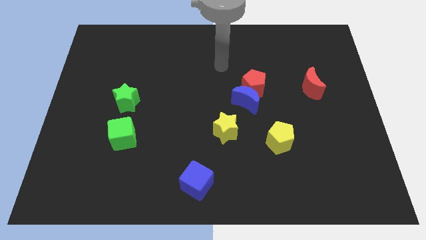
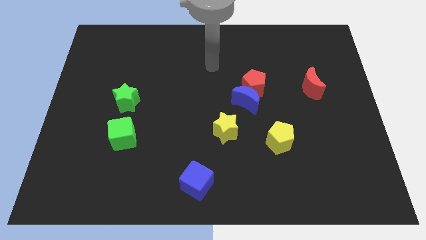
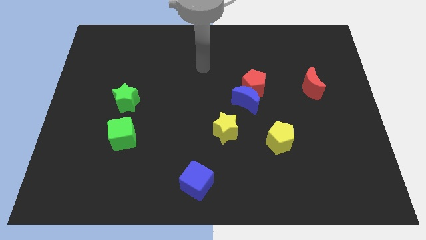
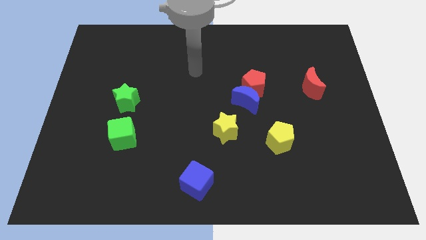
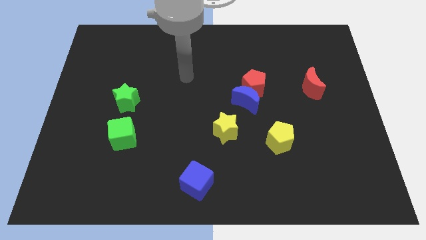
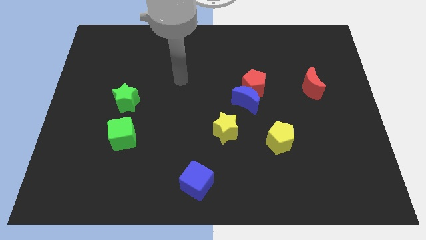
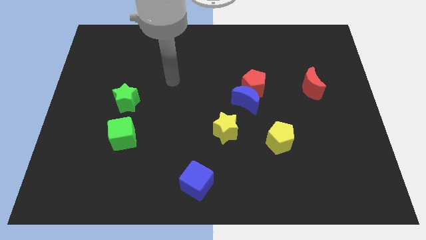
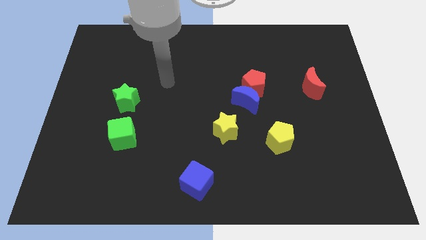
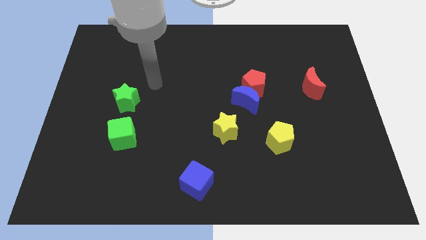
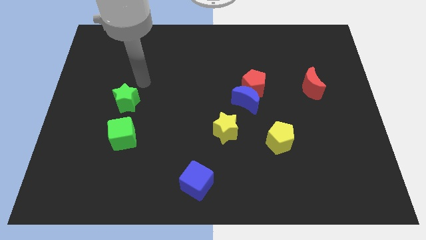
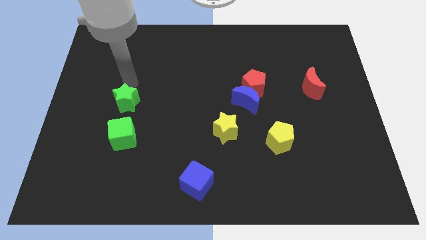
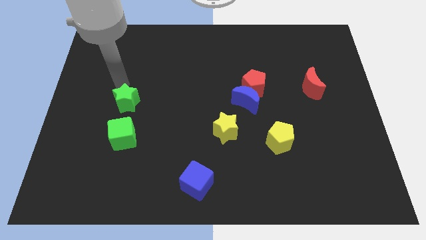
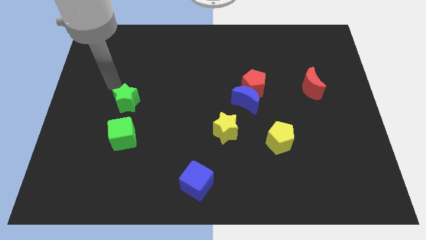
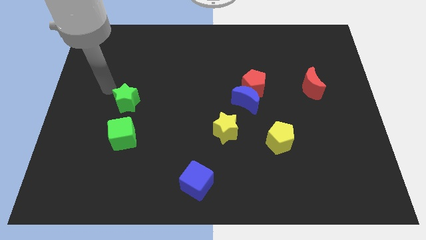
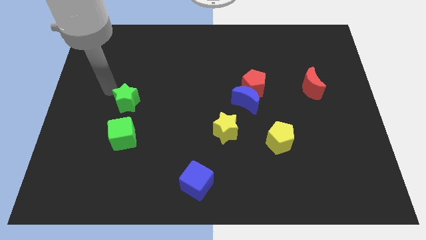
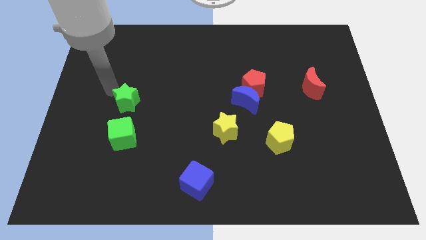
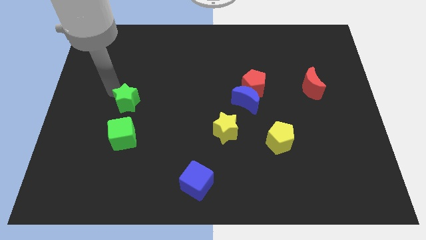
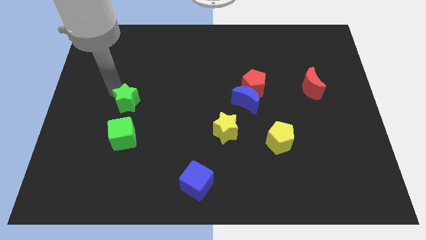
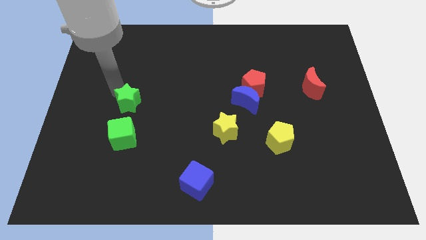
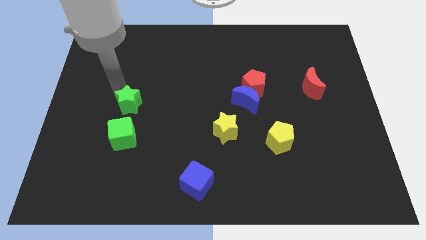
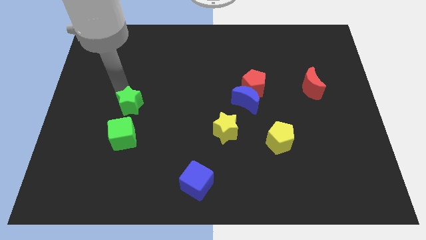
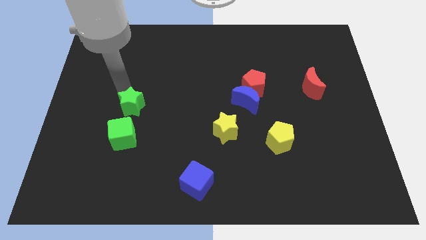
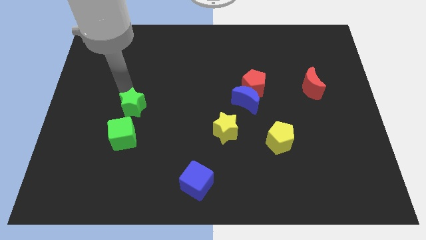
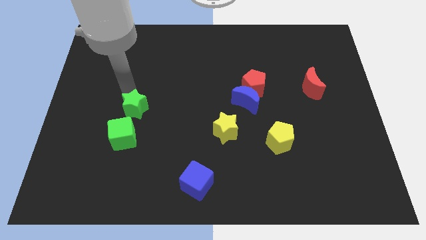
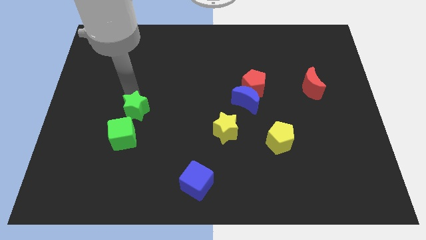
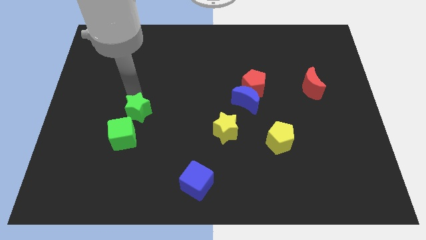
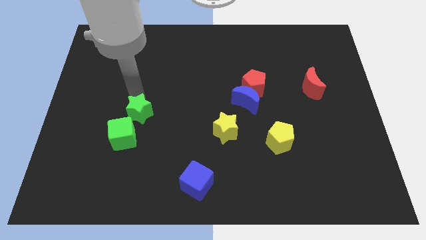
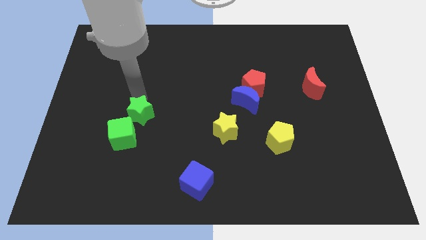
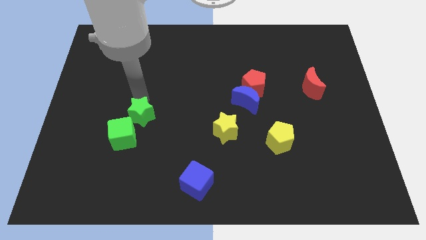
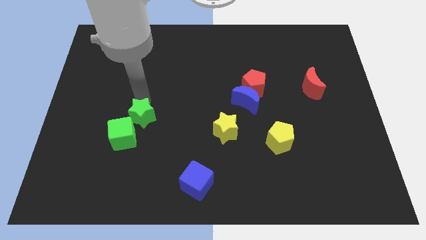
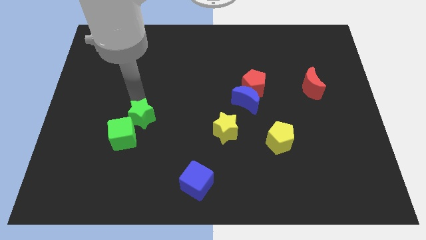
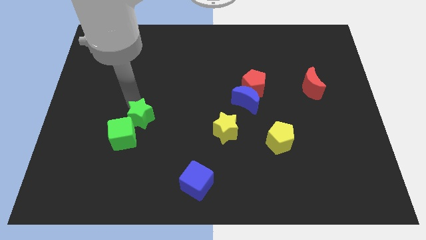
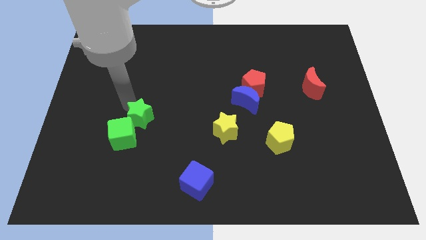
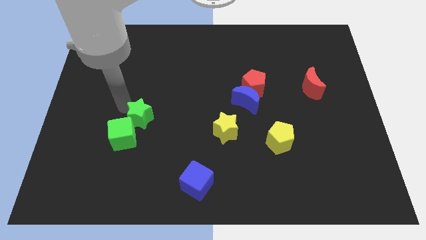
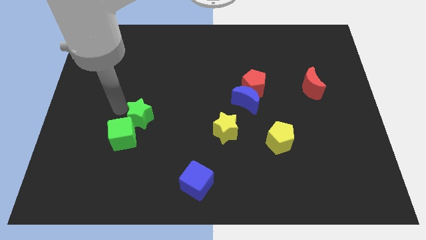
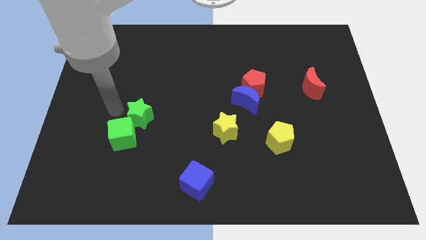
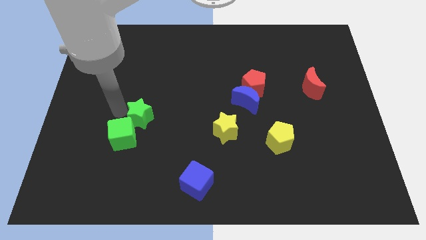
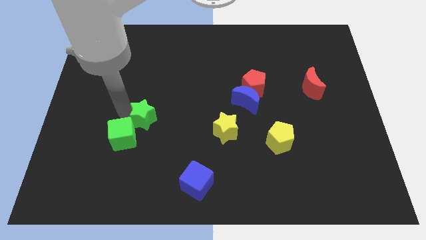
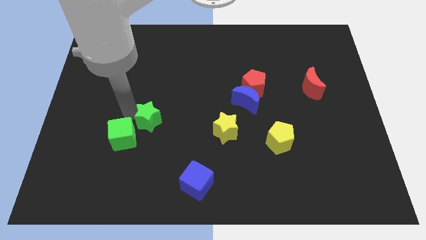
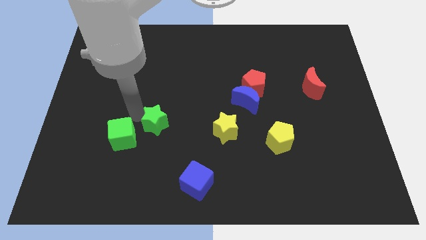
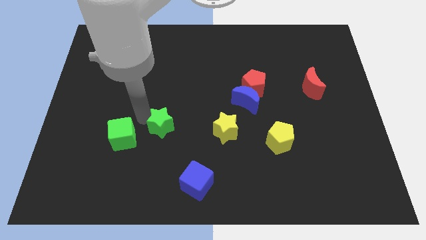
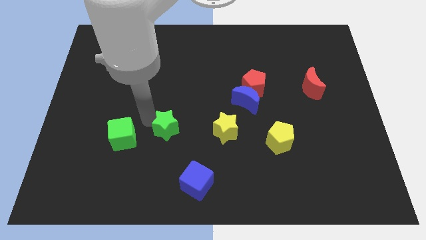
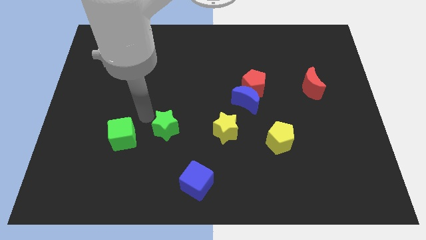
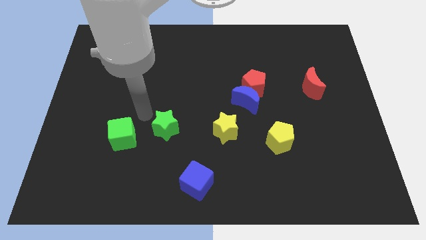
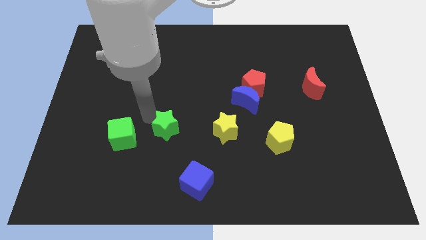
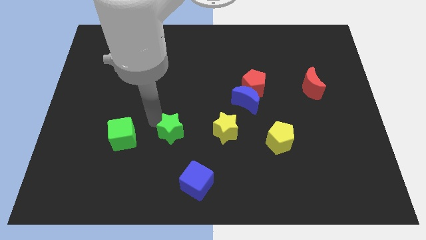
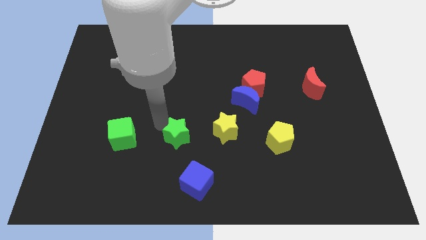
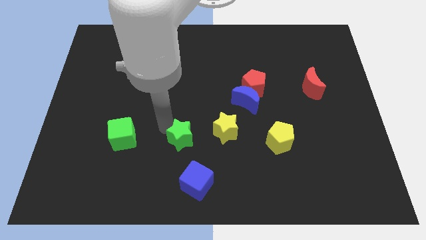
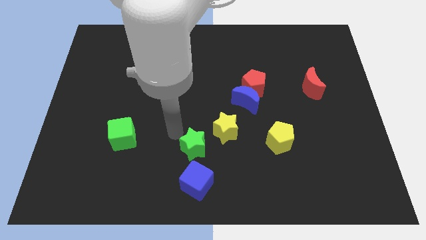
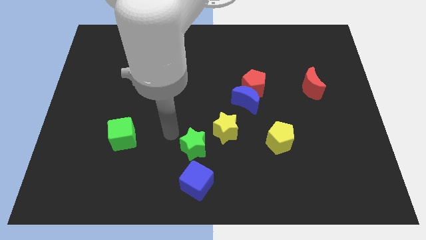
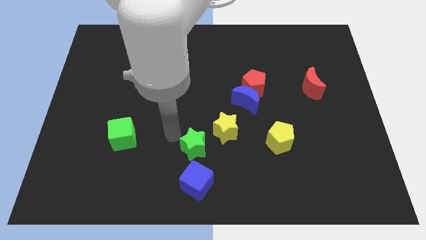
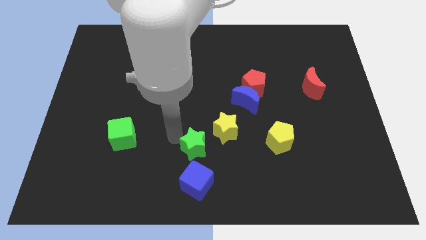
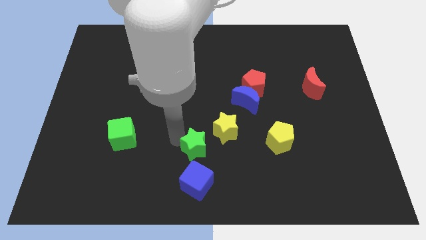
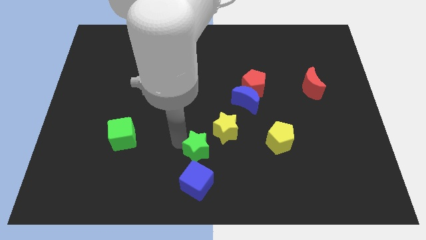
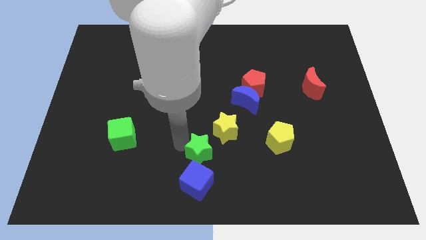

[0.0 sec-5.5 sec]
move the green star to the top right side of the blue cube
